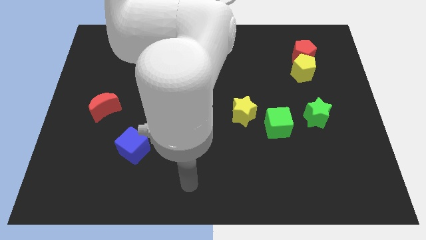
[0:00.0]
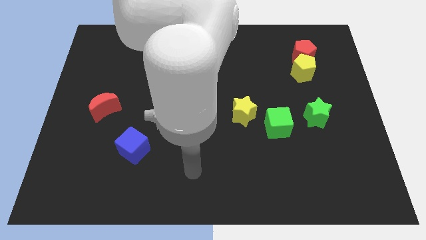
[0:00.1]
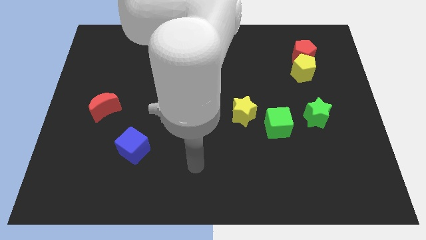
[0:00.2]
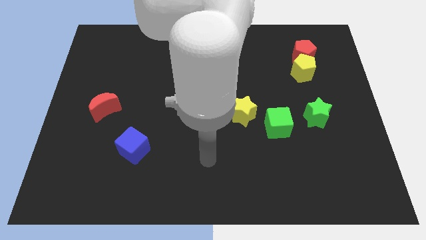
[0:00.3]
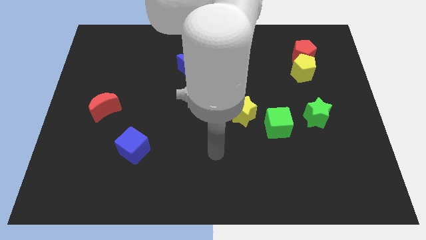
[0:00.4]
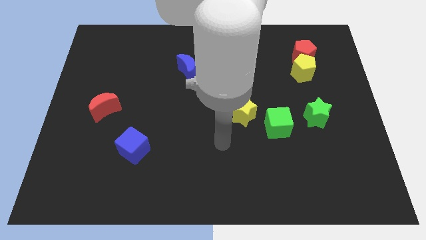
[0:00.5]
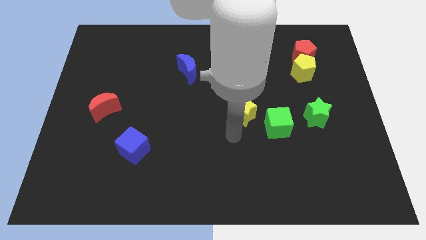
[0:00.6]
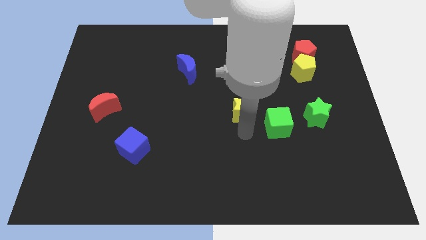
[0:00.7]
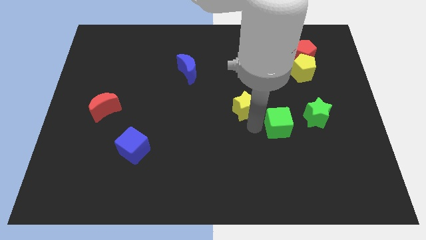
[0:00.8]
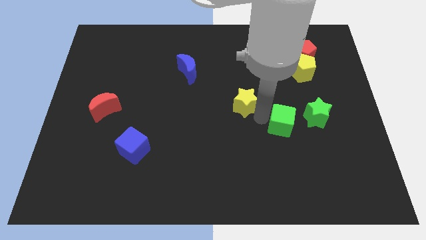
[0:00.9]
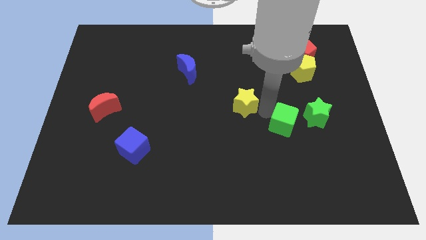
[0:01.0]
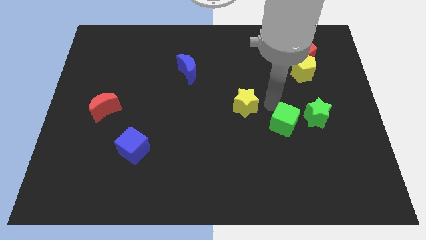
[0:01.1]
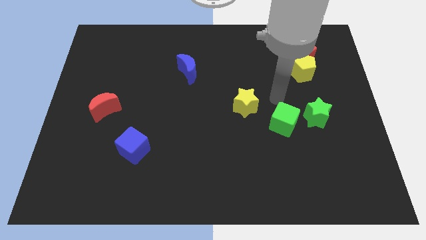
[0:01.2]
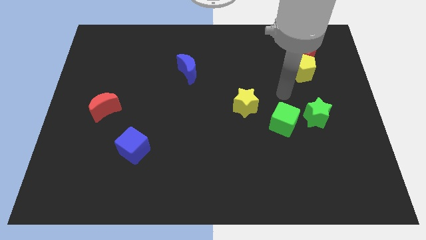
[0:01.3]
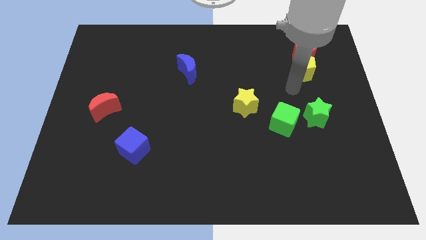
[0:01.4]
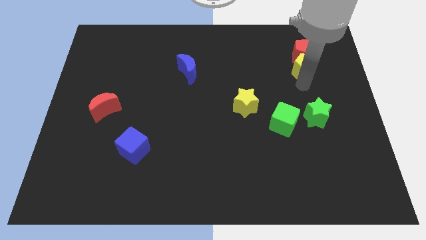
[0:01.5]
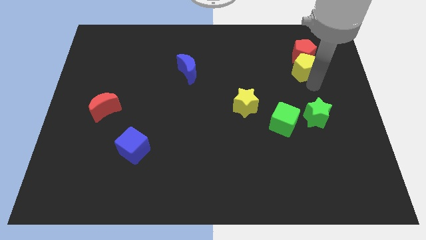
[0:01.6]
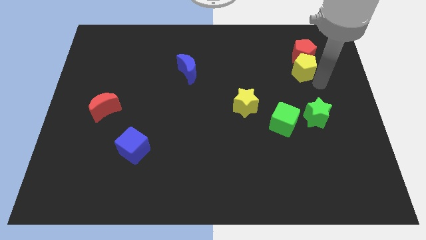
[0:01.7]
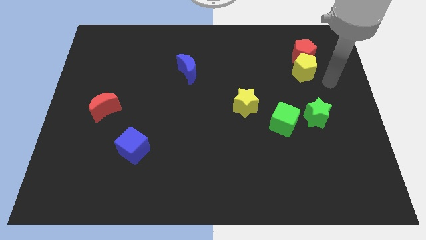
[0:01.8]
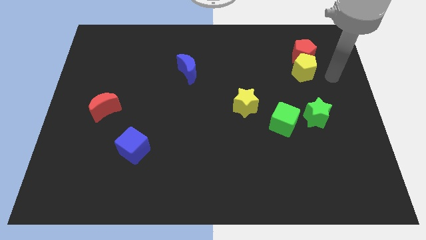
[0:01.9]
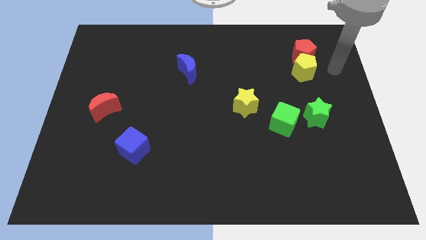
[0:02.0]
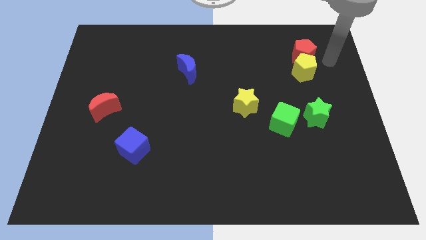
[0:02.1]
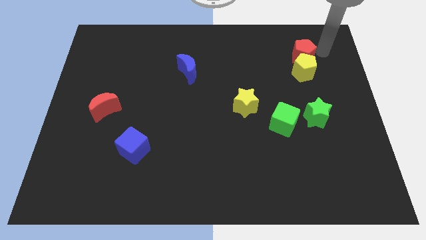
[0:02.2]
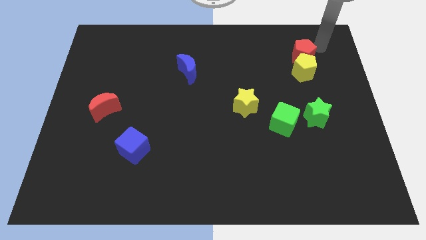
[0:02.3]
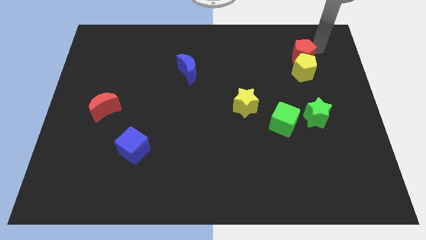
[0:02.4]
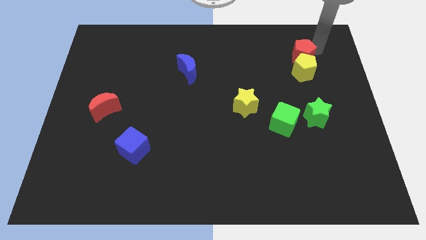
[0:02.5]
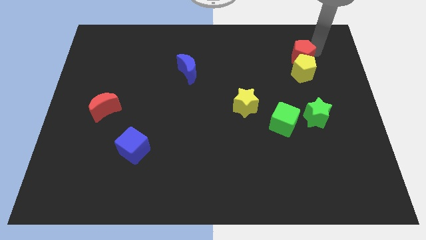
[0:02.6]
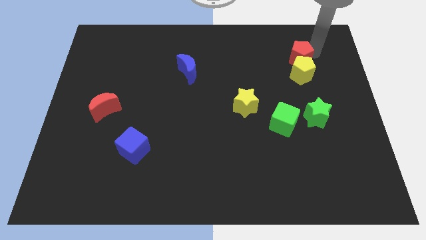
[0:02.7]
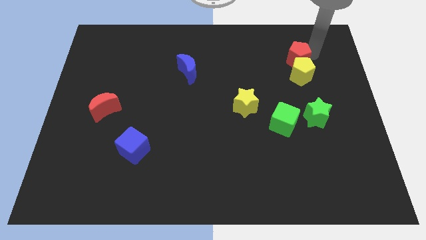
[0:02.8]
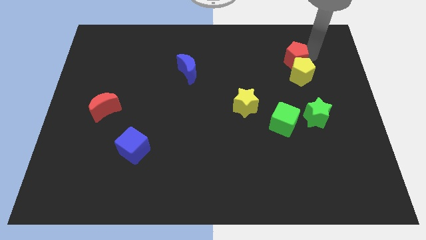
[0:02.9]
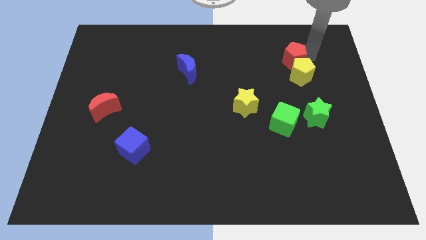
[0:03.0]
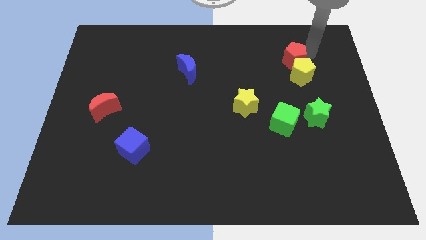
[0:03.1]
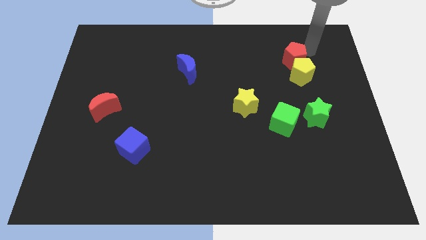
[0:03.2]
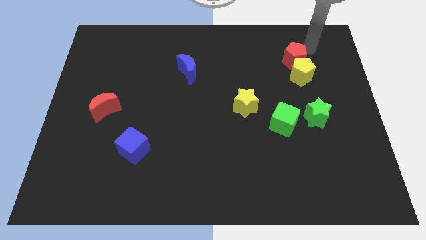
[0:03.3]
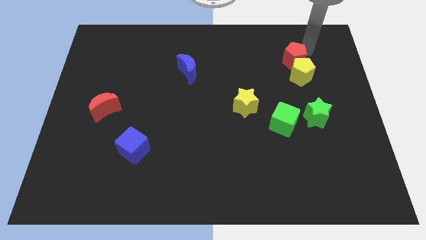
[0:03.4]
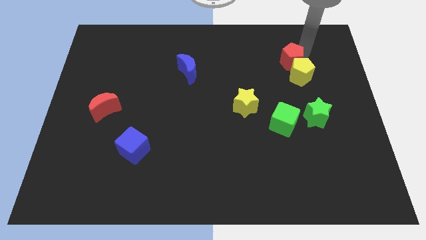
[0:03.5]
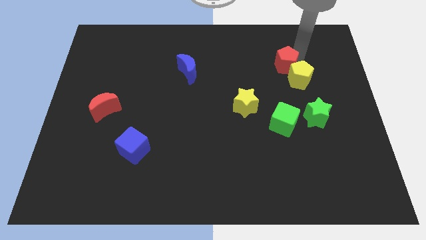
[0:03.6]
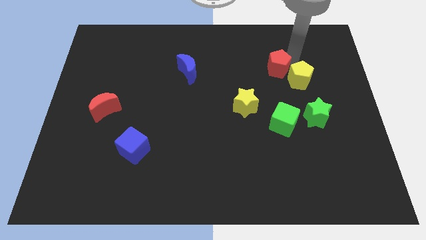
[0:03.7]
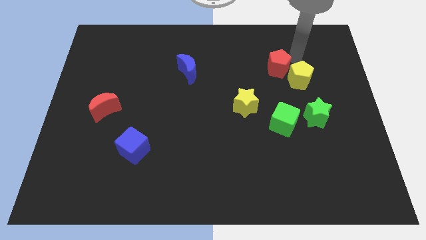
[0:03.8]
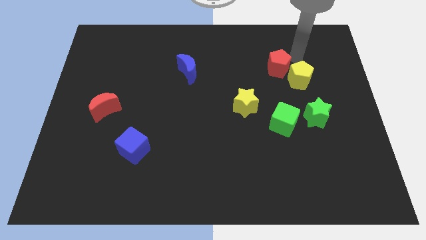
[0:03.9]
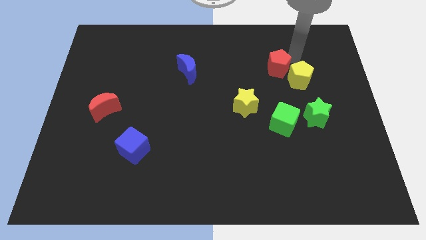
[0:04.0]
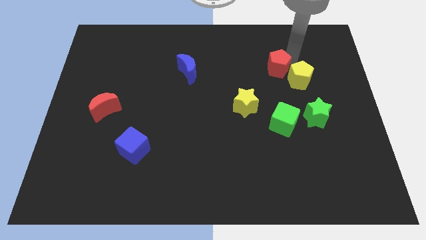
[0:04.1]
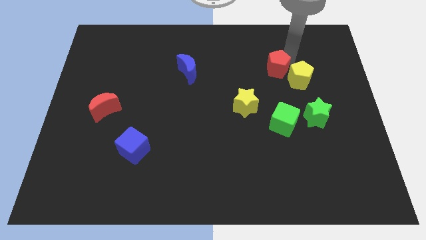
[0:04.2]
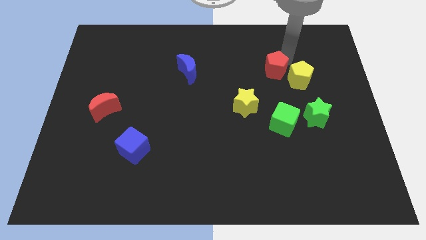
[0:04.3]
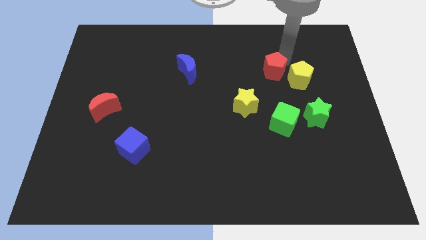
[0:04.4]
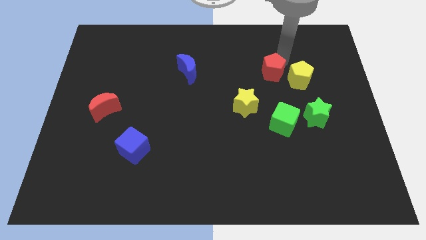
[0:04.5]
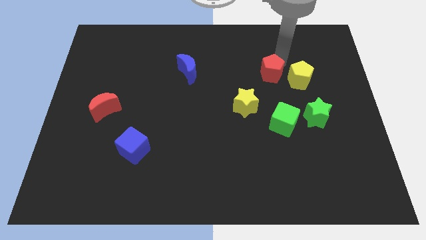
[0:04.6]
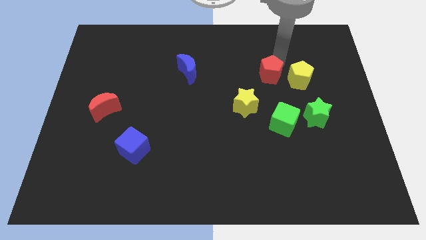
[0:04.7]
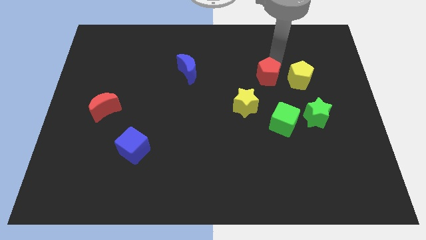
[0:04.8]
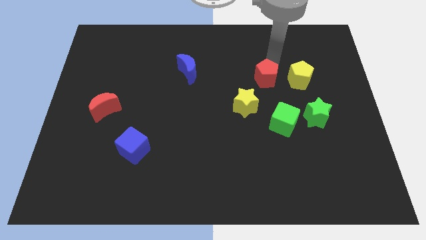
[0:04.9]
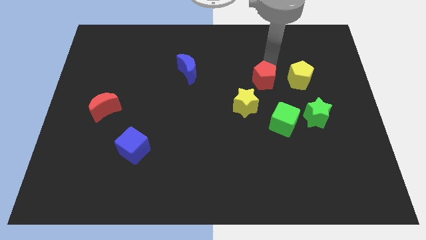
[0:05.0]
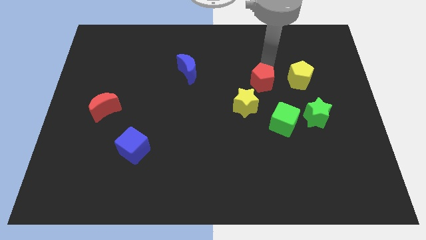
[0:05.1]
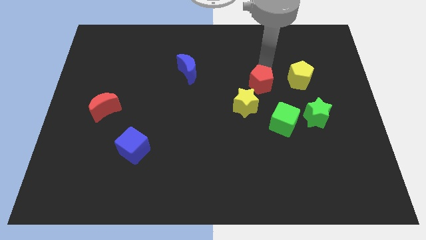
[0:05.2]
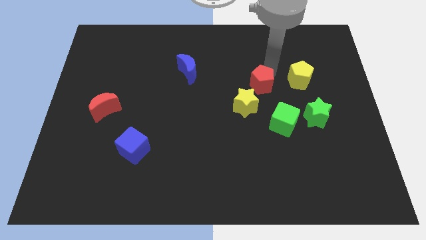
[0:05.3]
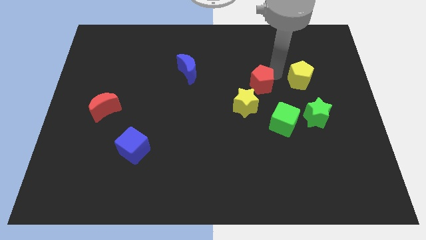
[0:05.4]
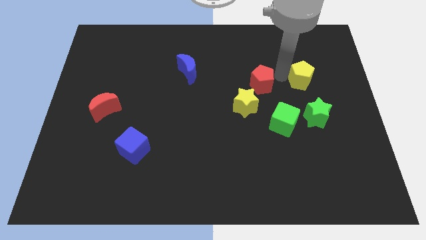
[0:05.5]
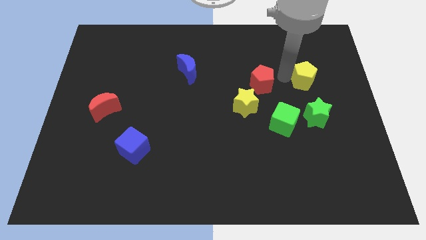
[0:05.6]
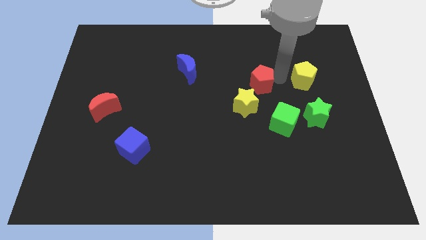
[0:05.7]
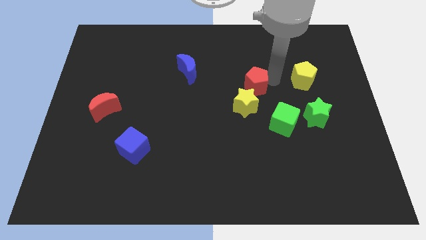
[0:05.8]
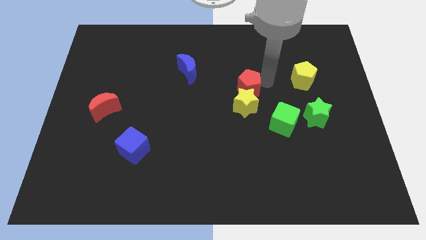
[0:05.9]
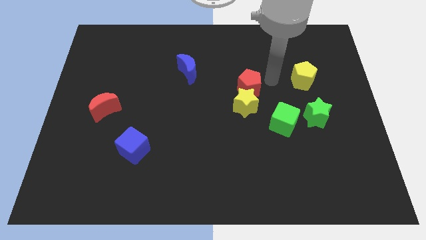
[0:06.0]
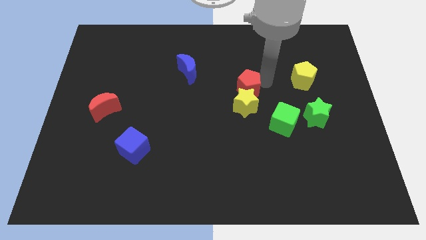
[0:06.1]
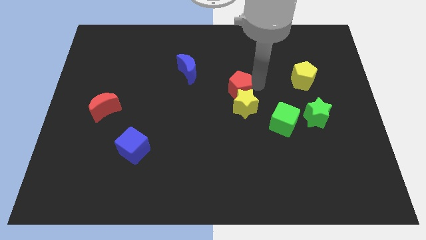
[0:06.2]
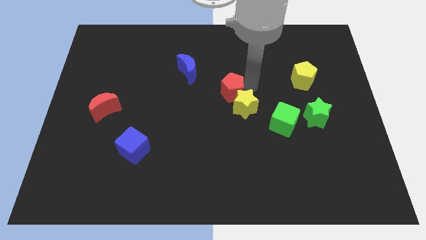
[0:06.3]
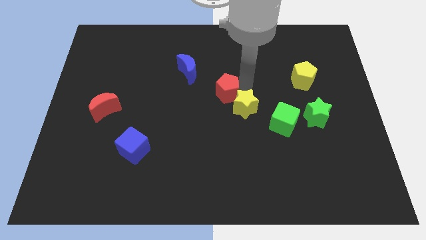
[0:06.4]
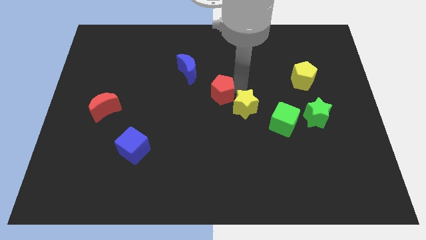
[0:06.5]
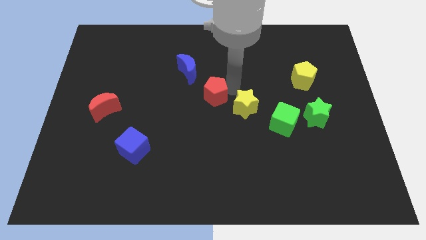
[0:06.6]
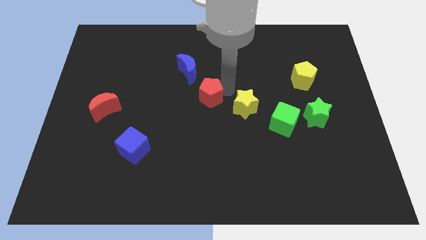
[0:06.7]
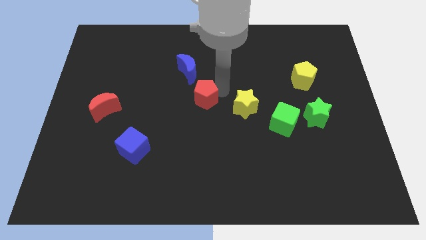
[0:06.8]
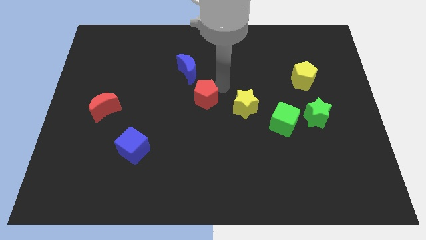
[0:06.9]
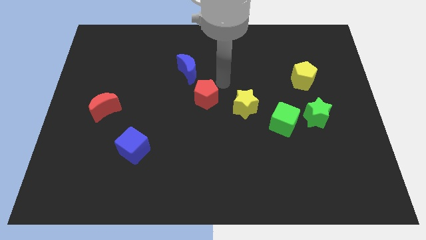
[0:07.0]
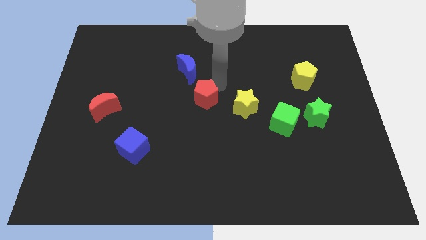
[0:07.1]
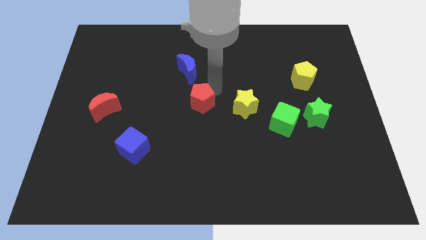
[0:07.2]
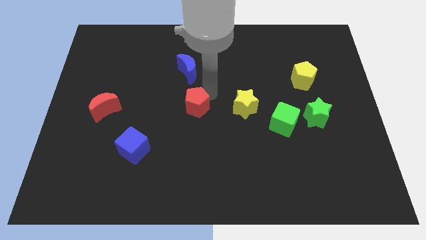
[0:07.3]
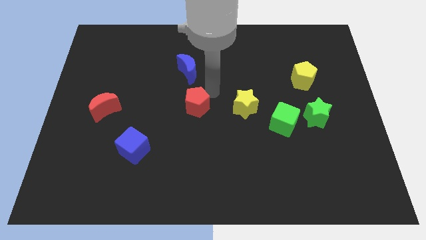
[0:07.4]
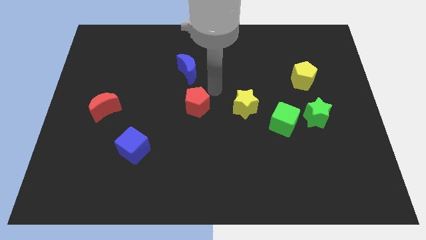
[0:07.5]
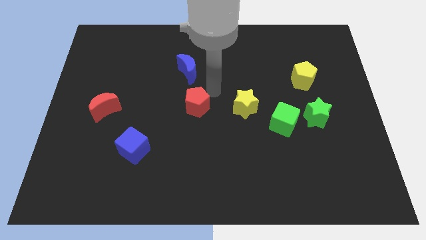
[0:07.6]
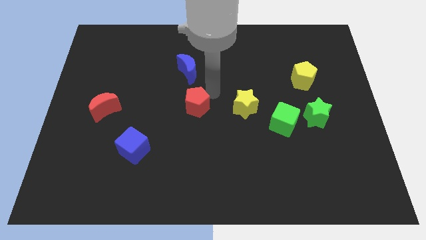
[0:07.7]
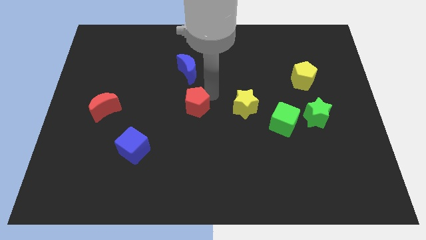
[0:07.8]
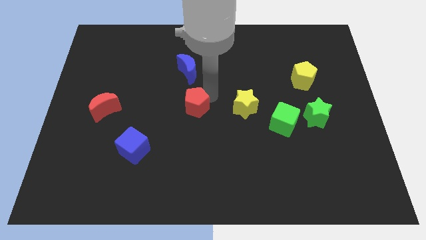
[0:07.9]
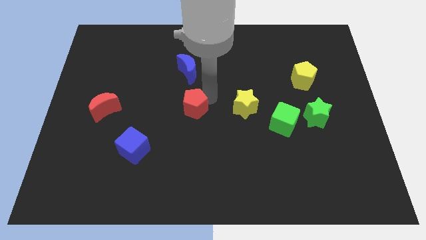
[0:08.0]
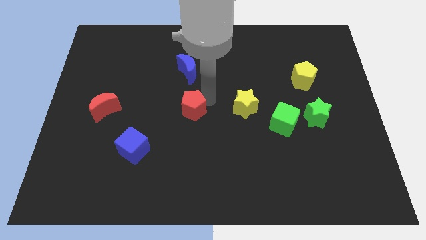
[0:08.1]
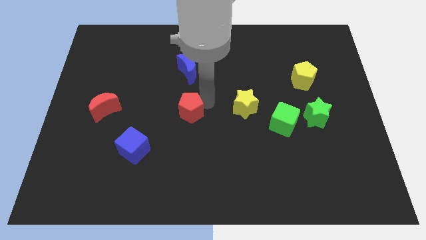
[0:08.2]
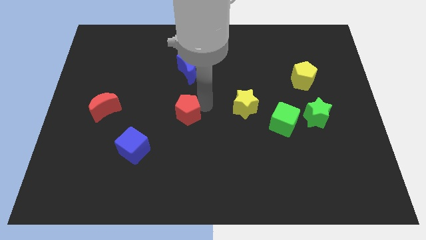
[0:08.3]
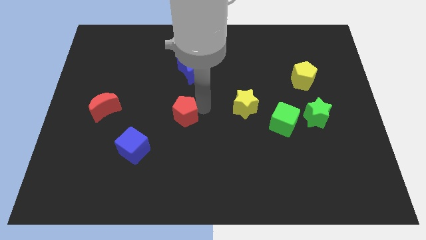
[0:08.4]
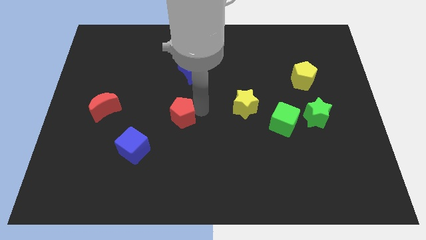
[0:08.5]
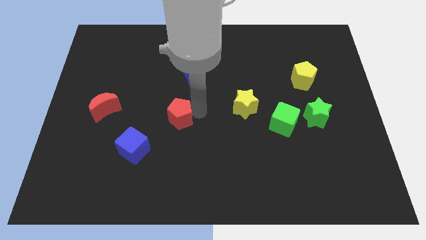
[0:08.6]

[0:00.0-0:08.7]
put the red pentagon diagonally up and to the right of the blue cube
